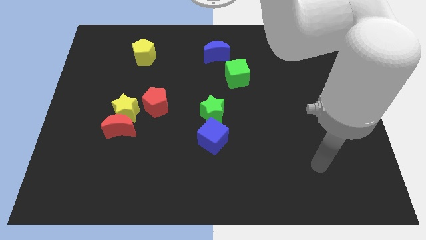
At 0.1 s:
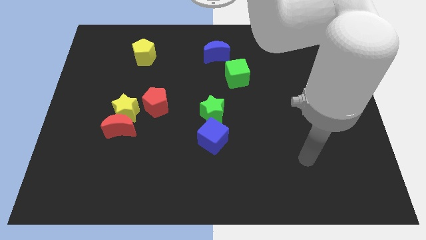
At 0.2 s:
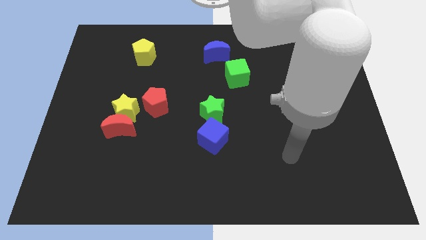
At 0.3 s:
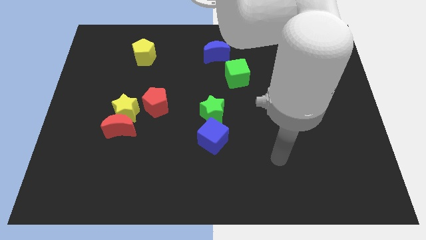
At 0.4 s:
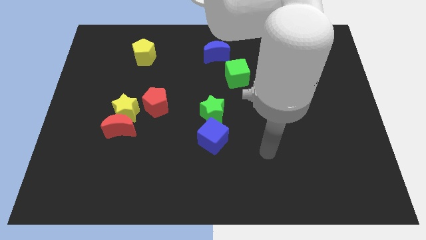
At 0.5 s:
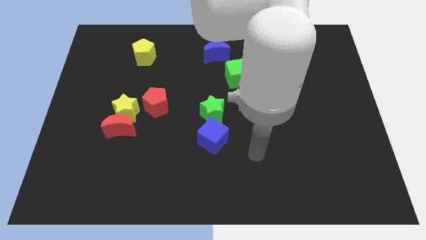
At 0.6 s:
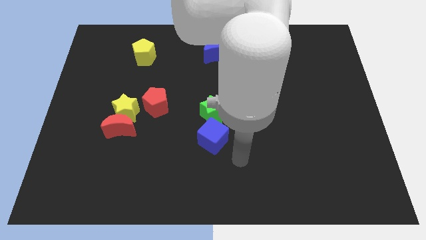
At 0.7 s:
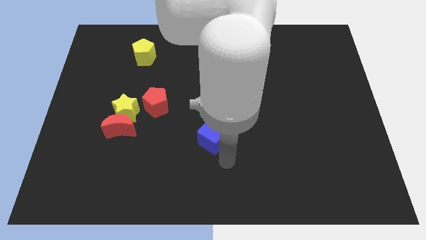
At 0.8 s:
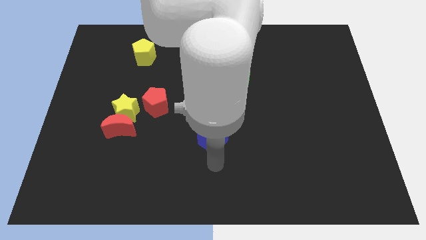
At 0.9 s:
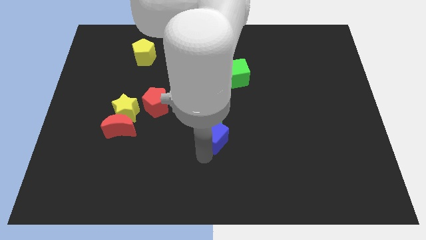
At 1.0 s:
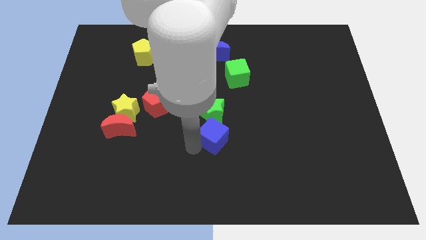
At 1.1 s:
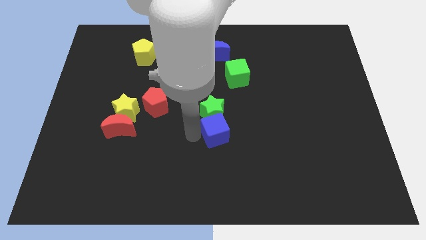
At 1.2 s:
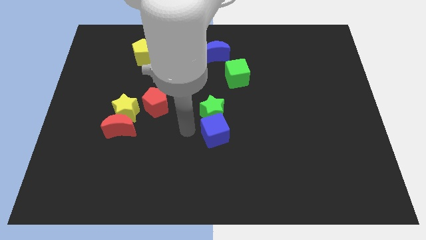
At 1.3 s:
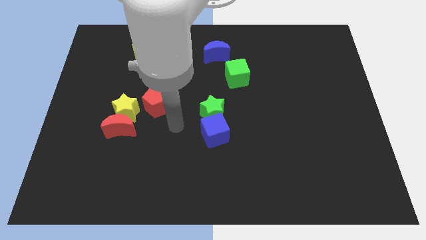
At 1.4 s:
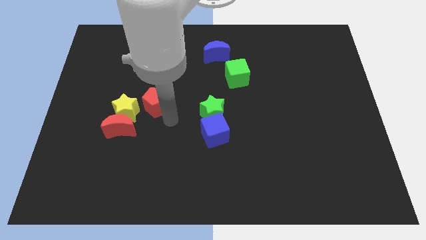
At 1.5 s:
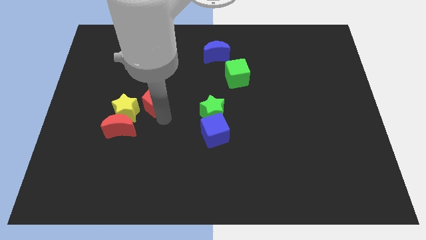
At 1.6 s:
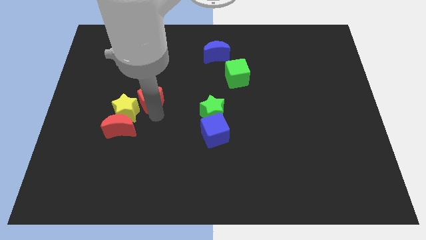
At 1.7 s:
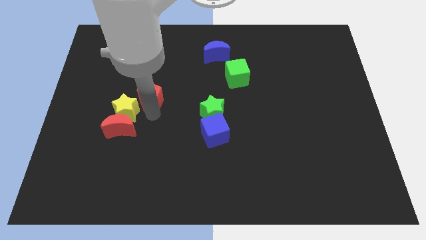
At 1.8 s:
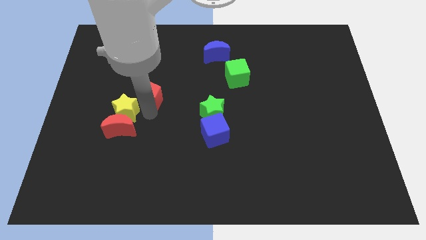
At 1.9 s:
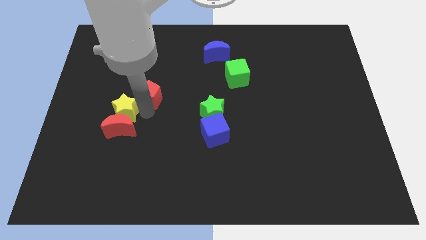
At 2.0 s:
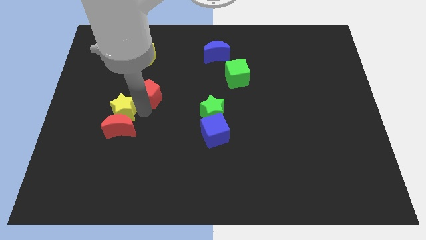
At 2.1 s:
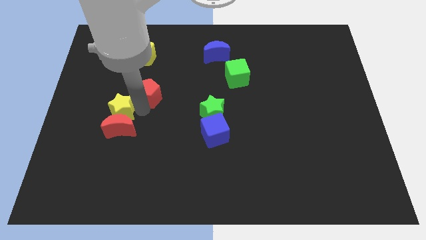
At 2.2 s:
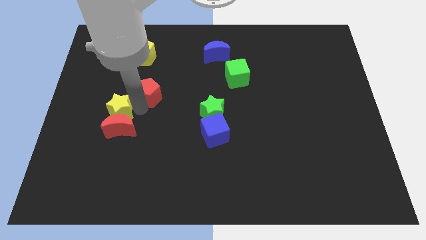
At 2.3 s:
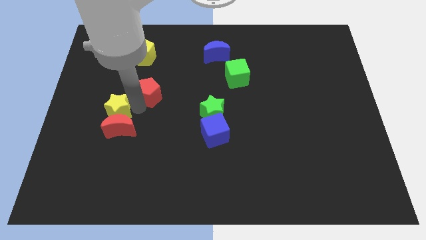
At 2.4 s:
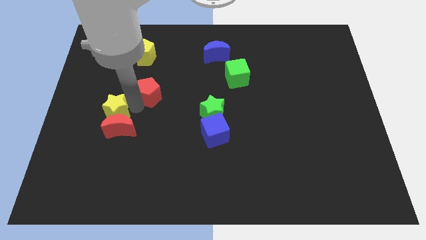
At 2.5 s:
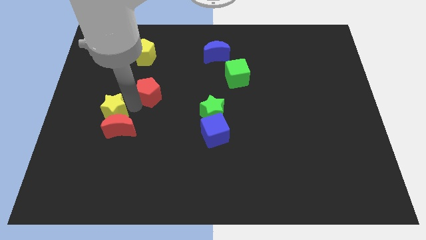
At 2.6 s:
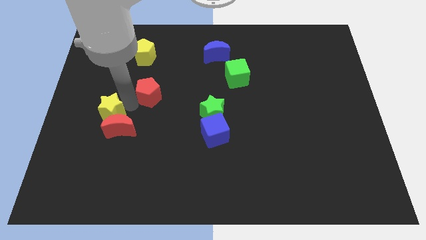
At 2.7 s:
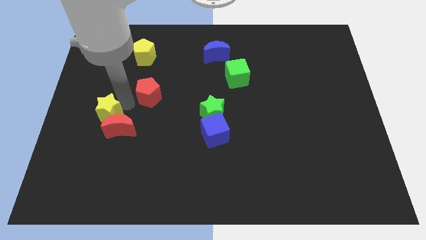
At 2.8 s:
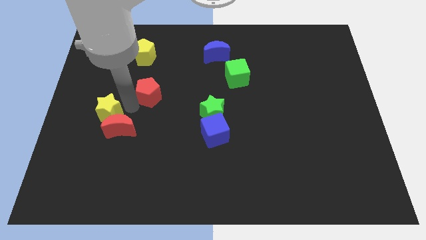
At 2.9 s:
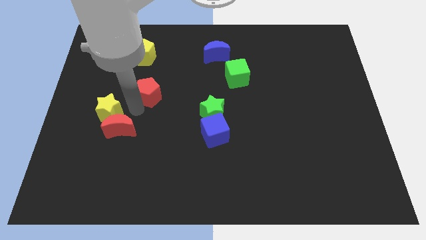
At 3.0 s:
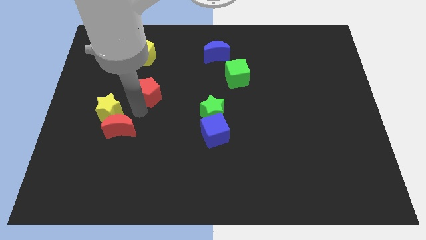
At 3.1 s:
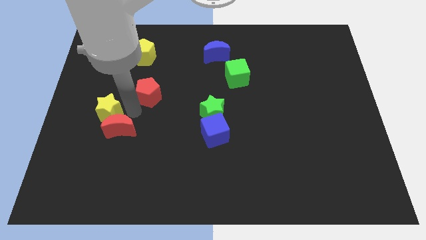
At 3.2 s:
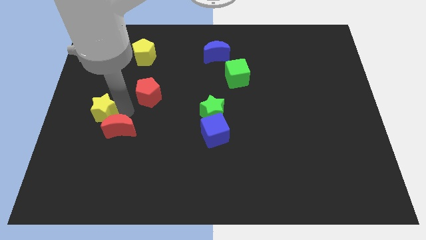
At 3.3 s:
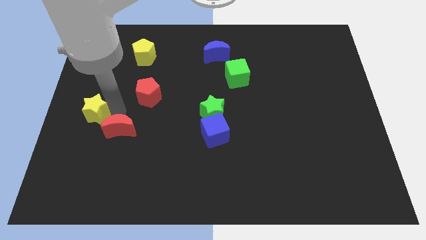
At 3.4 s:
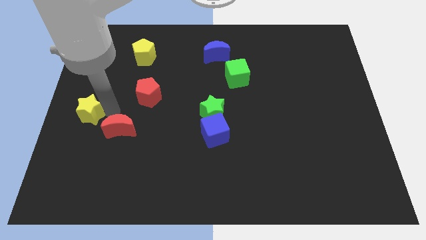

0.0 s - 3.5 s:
pull the yellow star apart from the red moon and red pentagon

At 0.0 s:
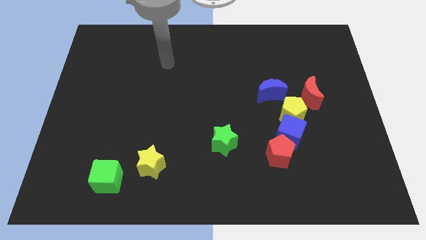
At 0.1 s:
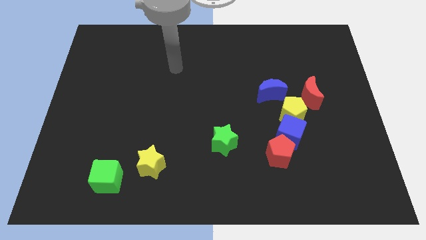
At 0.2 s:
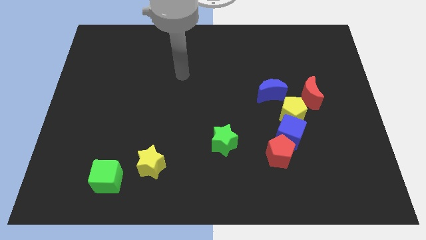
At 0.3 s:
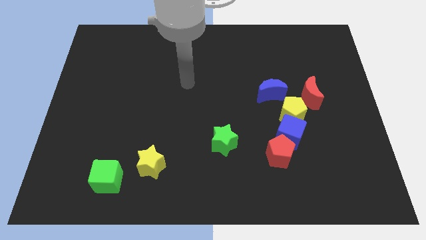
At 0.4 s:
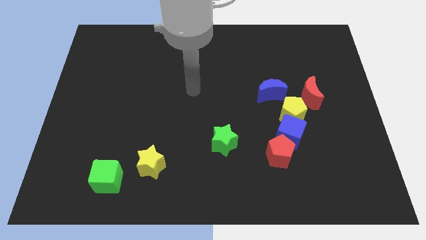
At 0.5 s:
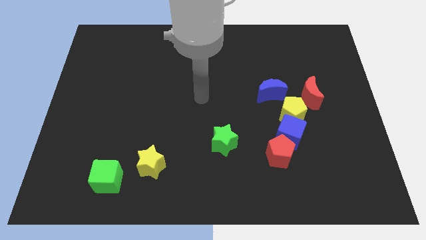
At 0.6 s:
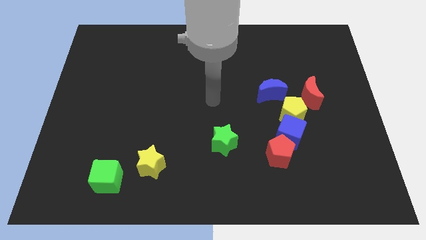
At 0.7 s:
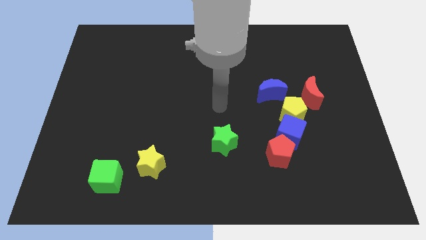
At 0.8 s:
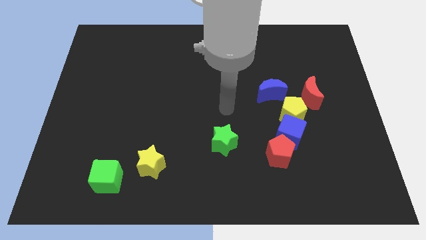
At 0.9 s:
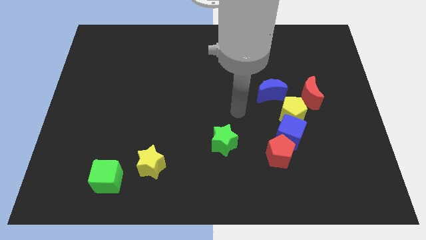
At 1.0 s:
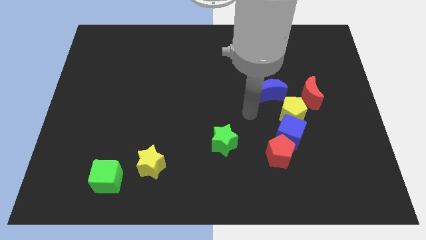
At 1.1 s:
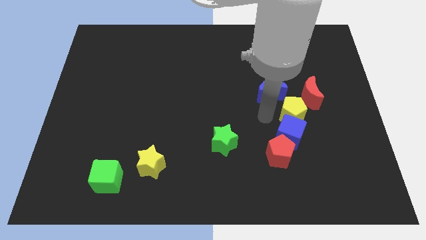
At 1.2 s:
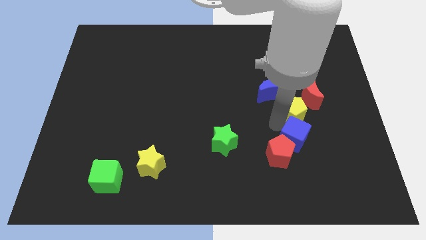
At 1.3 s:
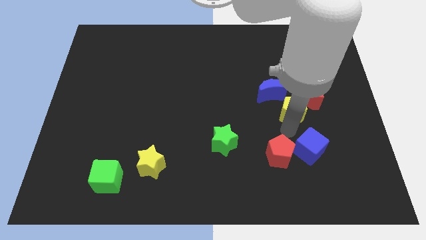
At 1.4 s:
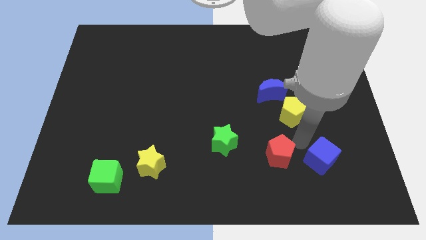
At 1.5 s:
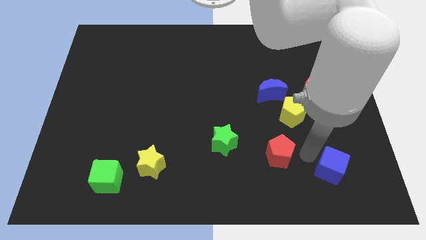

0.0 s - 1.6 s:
pull the red pentagon apart from the blue cube

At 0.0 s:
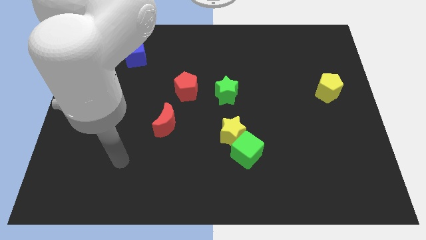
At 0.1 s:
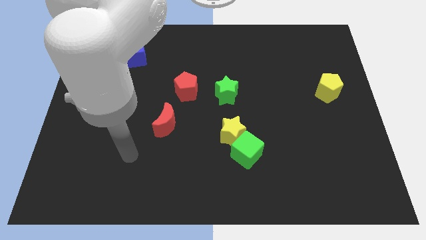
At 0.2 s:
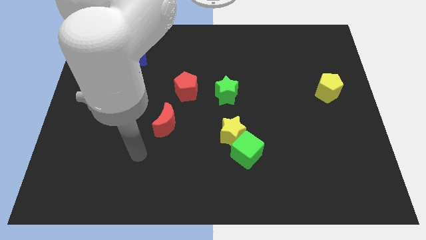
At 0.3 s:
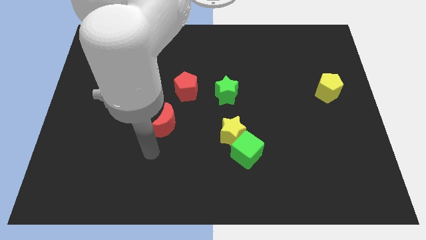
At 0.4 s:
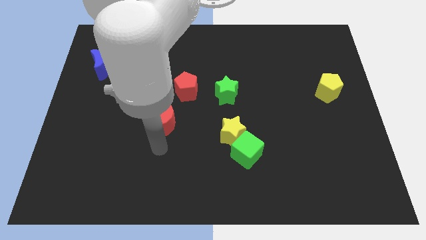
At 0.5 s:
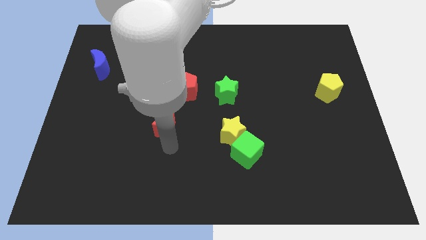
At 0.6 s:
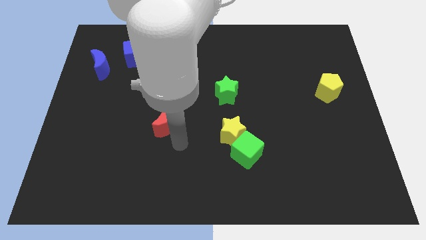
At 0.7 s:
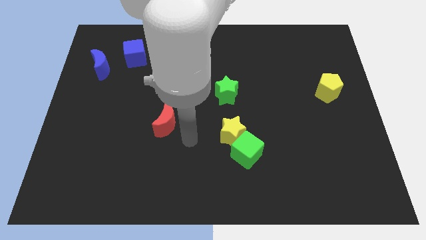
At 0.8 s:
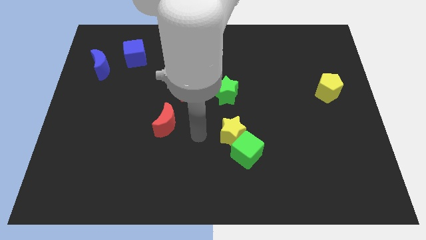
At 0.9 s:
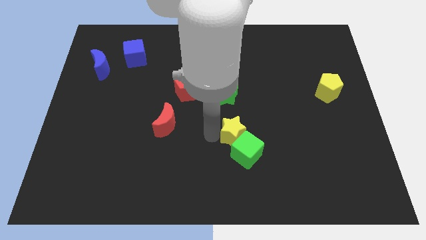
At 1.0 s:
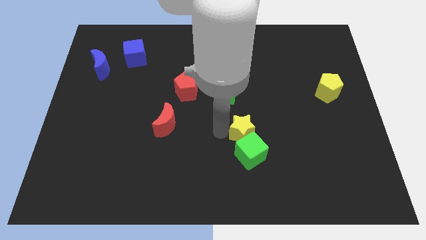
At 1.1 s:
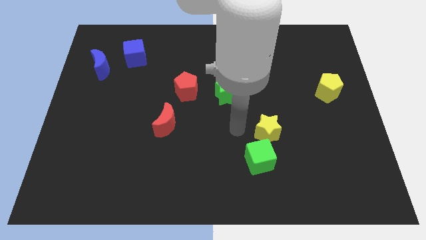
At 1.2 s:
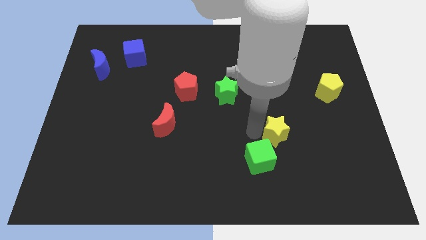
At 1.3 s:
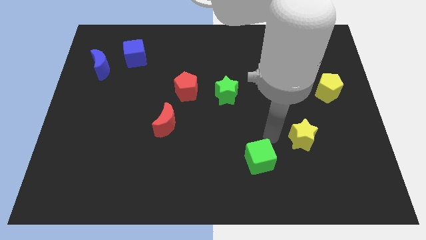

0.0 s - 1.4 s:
move the green cube away from the yellow star

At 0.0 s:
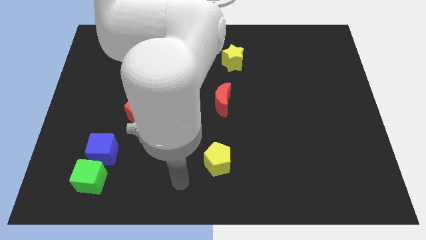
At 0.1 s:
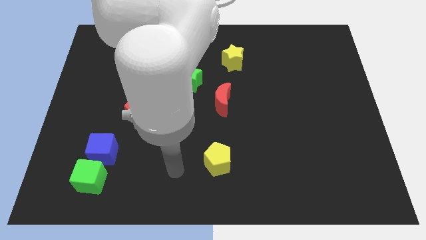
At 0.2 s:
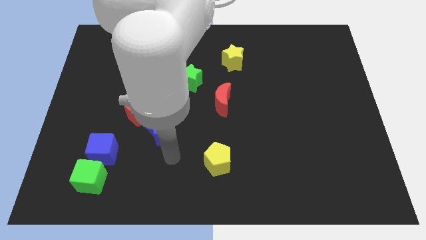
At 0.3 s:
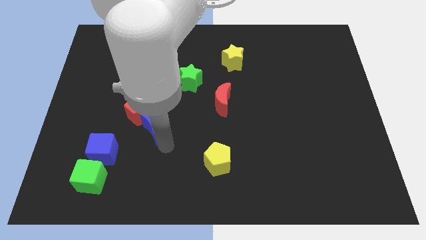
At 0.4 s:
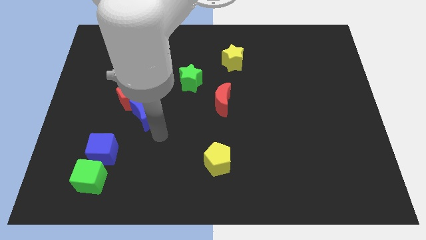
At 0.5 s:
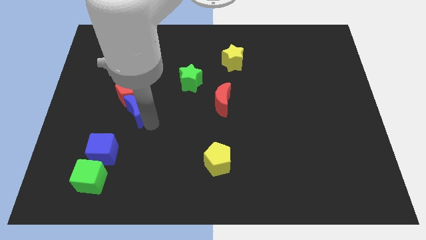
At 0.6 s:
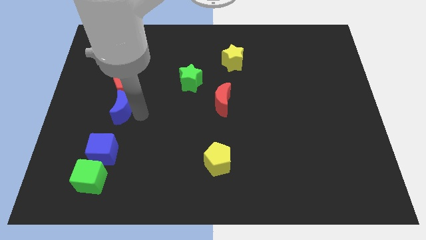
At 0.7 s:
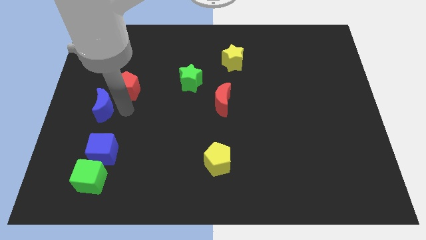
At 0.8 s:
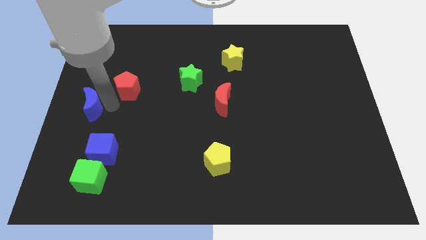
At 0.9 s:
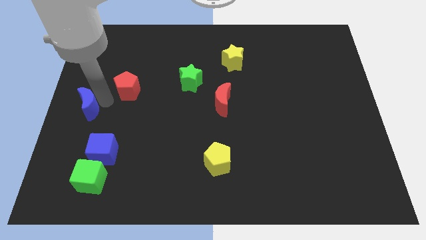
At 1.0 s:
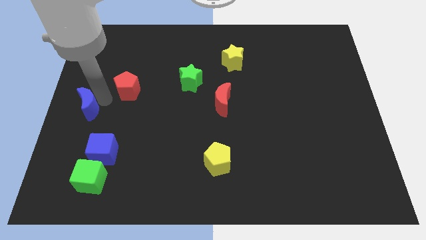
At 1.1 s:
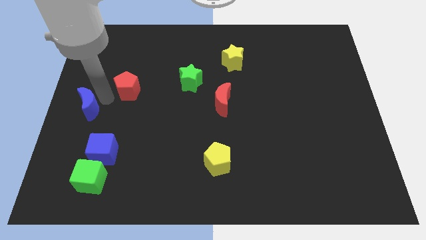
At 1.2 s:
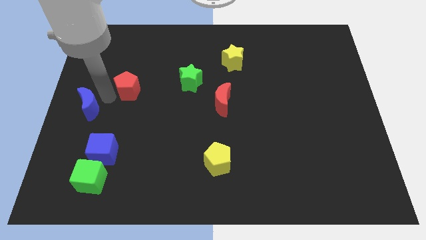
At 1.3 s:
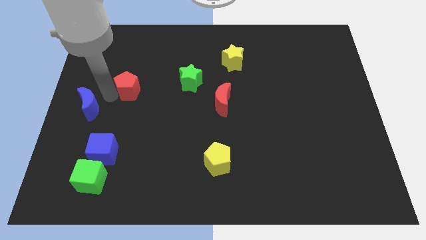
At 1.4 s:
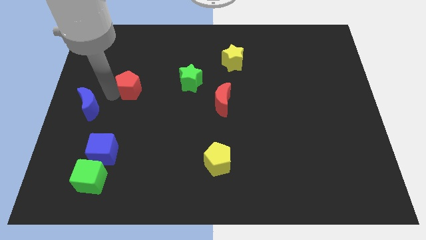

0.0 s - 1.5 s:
pull the red pentagon apart from the blue moon

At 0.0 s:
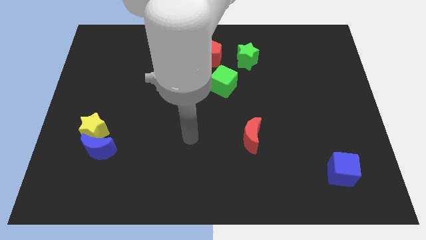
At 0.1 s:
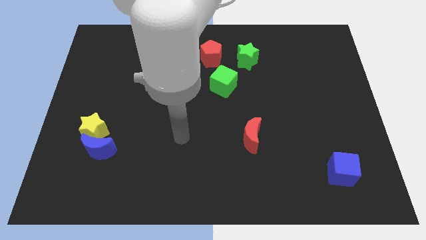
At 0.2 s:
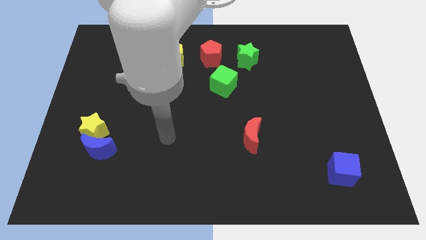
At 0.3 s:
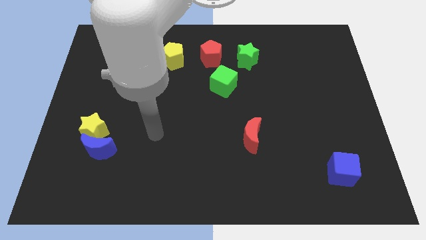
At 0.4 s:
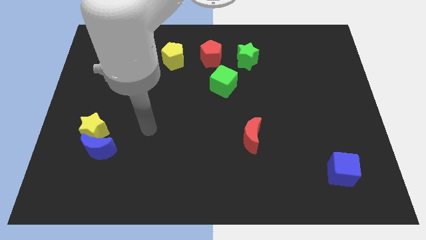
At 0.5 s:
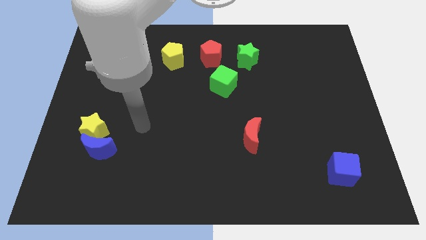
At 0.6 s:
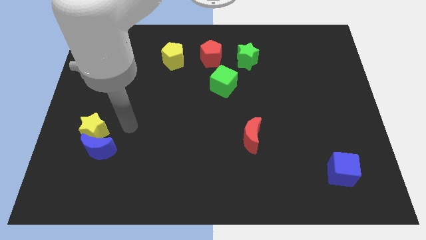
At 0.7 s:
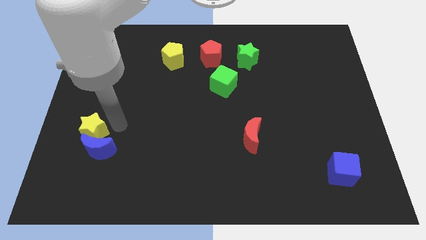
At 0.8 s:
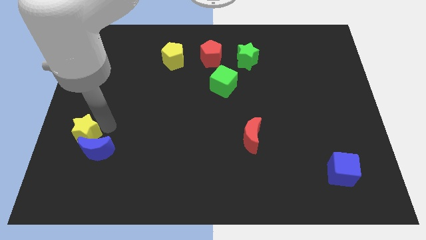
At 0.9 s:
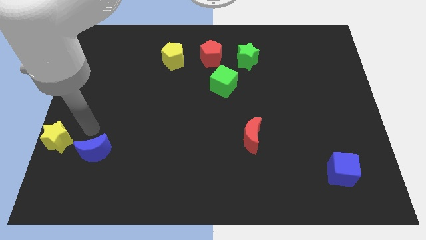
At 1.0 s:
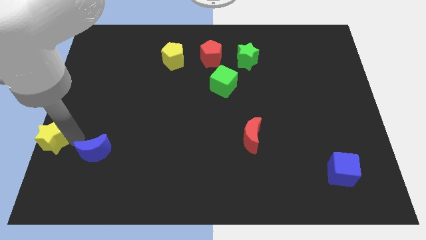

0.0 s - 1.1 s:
move the blue moon away from the yellow star

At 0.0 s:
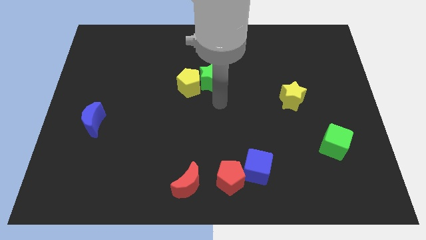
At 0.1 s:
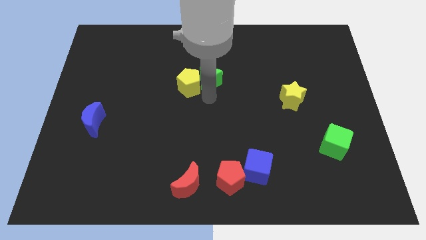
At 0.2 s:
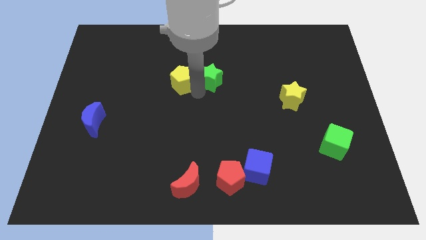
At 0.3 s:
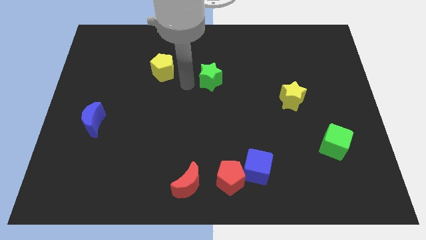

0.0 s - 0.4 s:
move the green star away from the yellow pentagon
